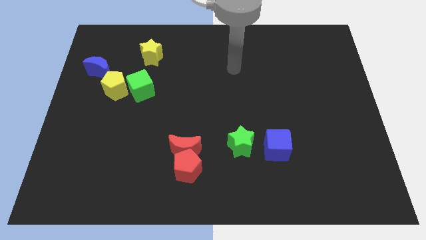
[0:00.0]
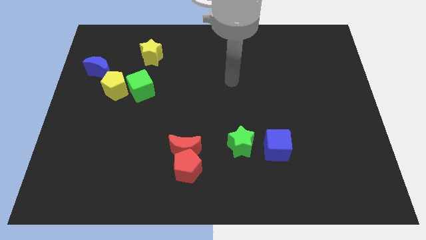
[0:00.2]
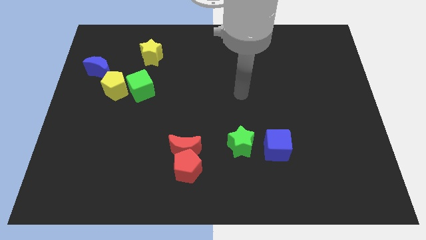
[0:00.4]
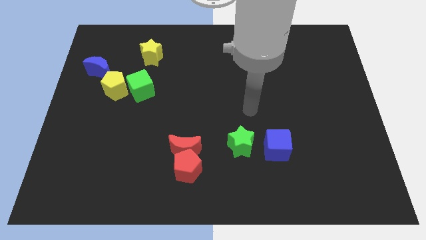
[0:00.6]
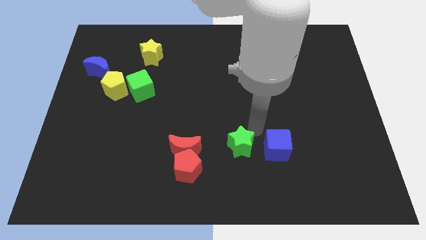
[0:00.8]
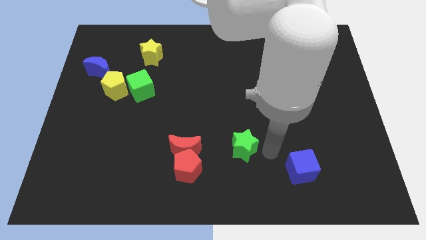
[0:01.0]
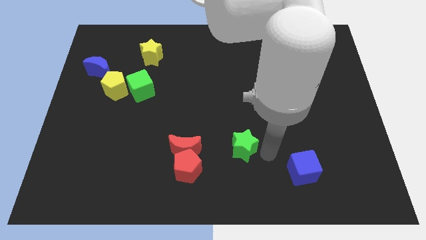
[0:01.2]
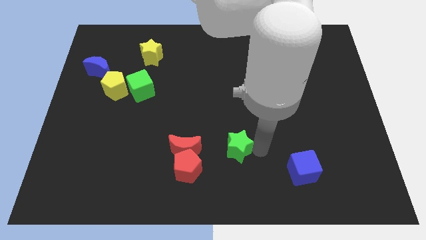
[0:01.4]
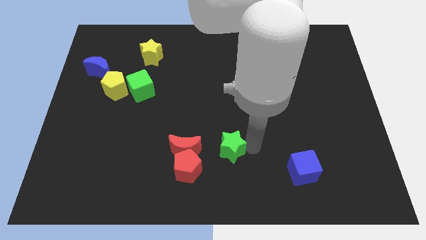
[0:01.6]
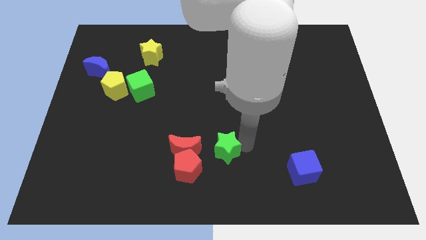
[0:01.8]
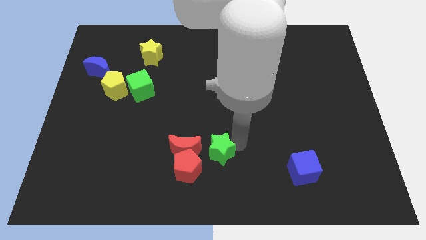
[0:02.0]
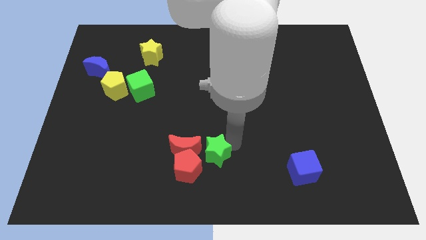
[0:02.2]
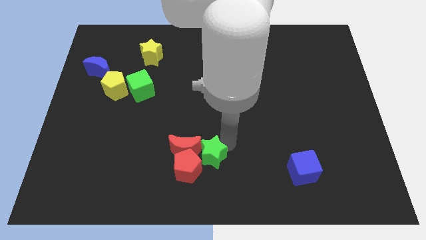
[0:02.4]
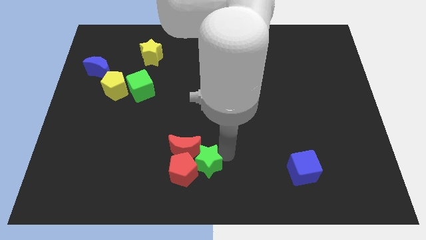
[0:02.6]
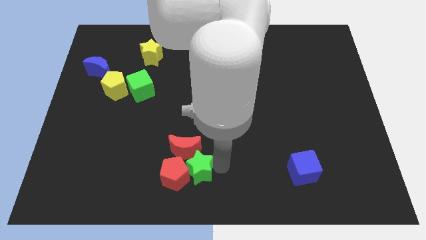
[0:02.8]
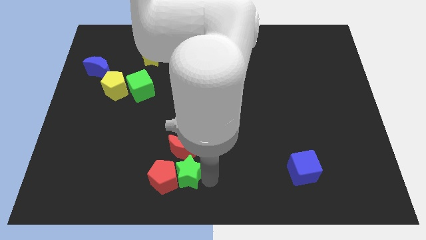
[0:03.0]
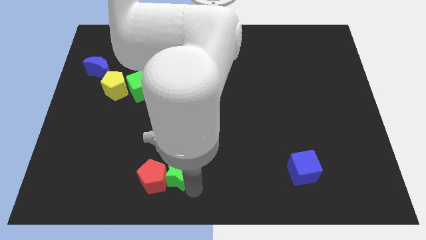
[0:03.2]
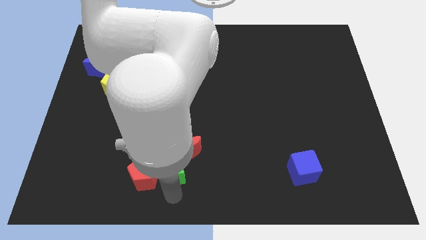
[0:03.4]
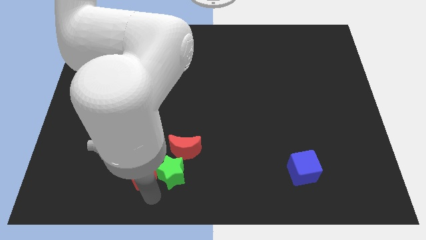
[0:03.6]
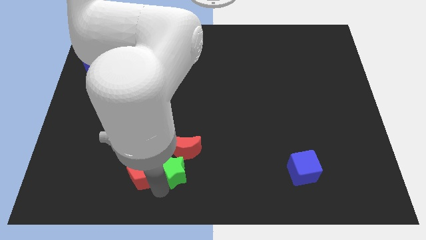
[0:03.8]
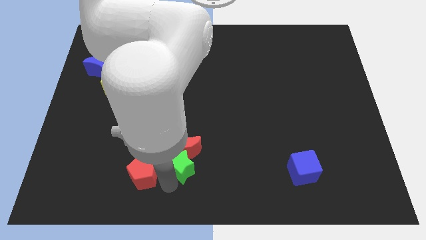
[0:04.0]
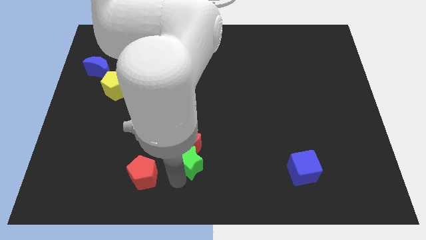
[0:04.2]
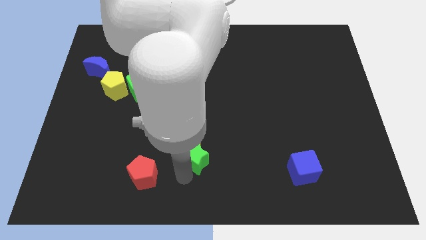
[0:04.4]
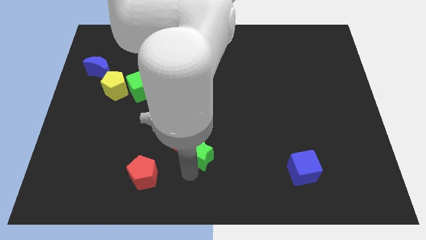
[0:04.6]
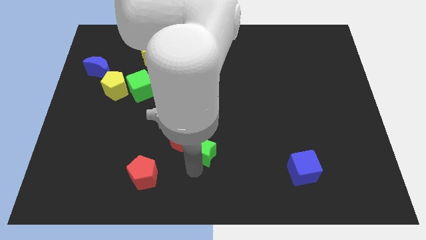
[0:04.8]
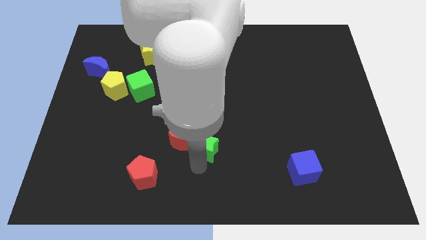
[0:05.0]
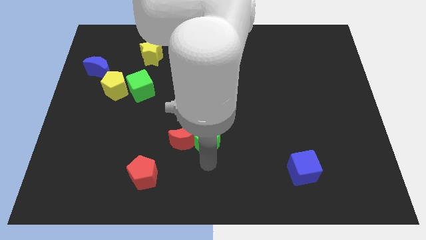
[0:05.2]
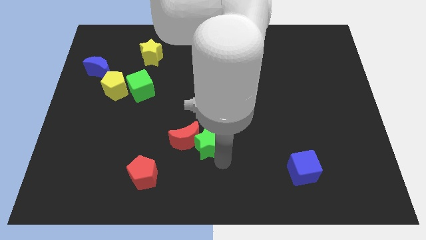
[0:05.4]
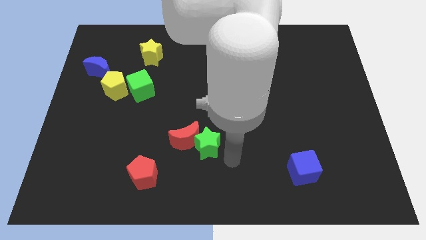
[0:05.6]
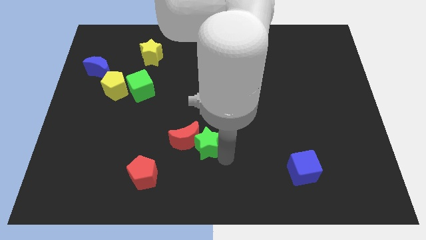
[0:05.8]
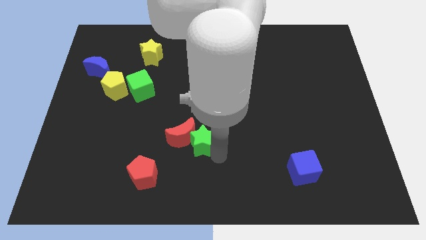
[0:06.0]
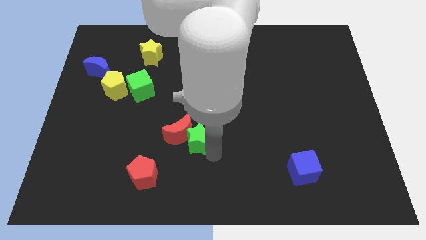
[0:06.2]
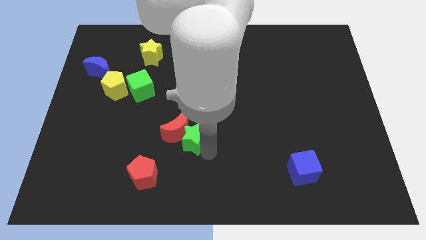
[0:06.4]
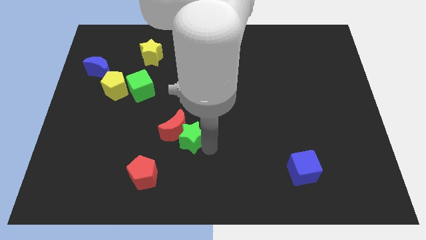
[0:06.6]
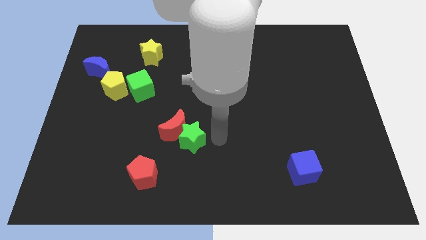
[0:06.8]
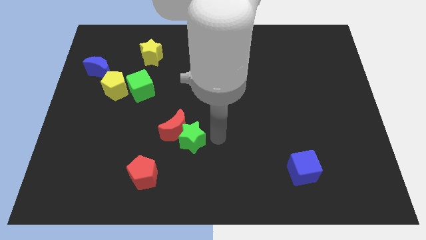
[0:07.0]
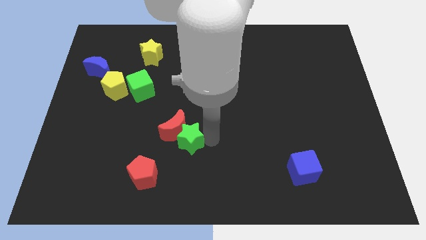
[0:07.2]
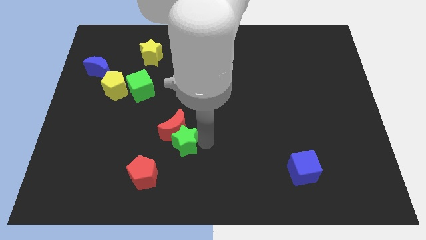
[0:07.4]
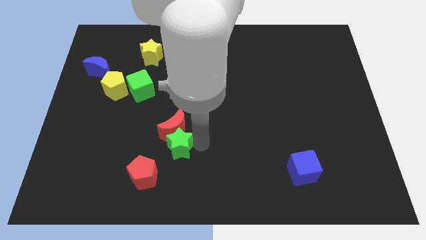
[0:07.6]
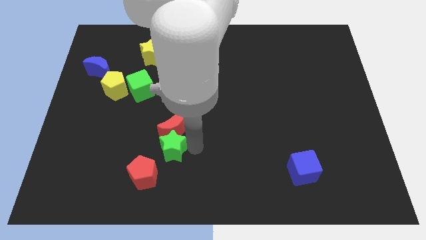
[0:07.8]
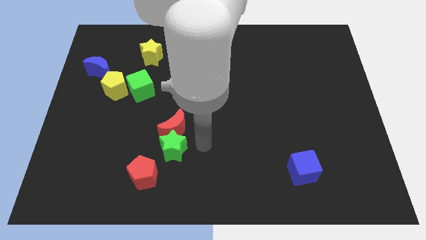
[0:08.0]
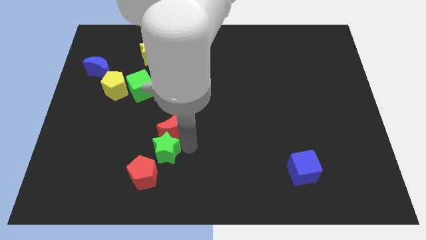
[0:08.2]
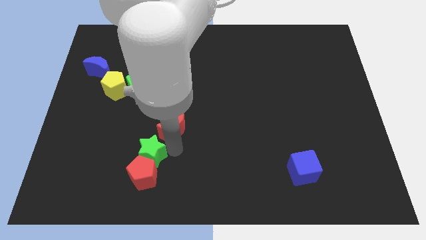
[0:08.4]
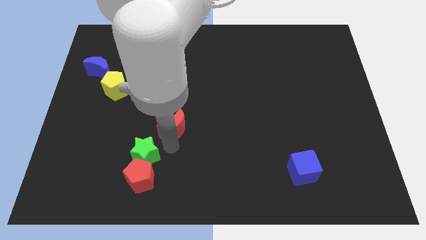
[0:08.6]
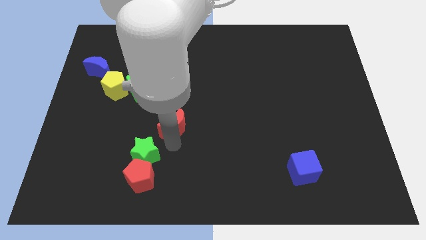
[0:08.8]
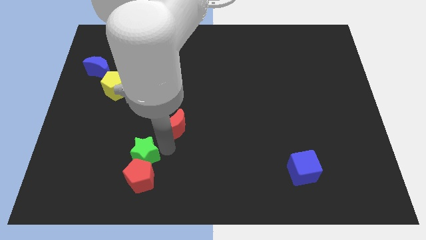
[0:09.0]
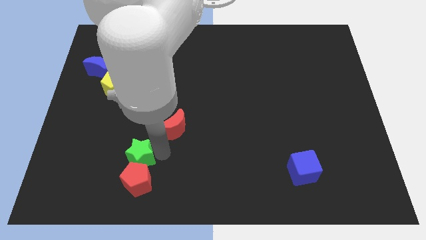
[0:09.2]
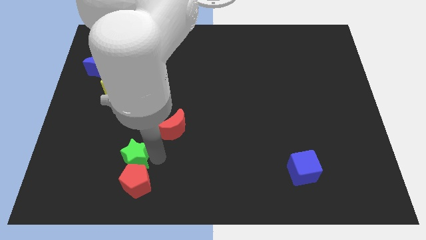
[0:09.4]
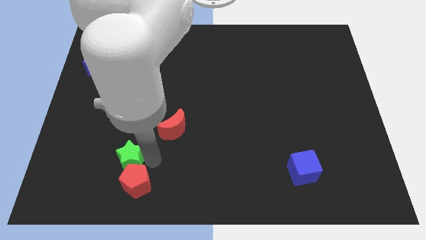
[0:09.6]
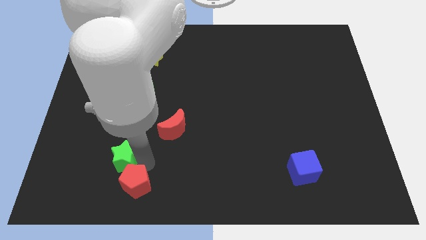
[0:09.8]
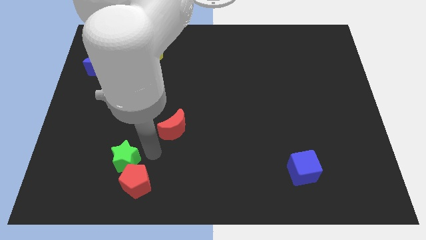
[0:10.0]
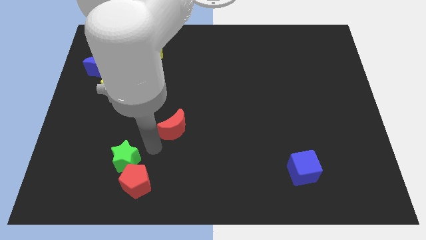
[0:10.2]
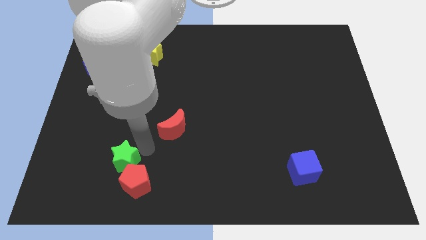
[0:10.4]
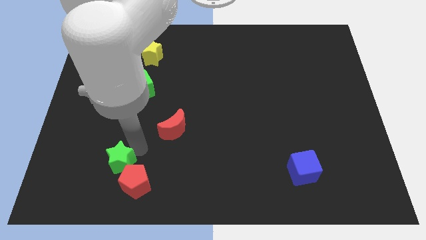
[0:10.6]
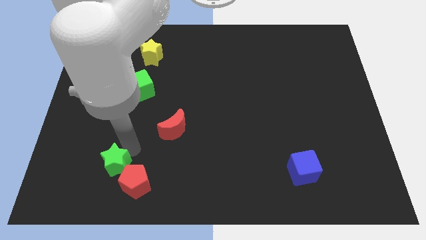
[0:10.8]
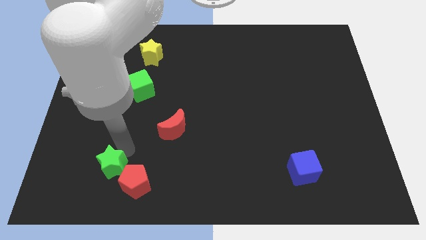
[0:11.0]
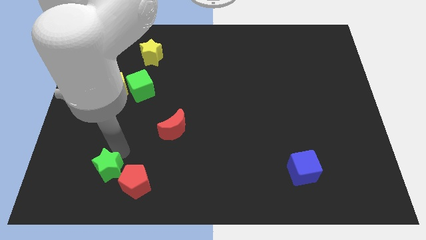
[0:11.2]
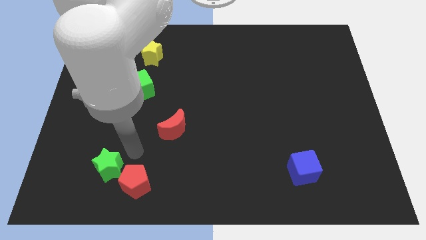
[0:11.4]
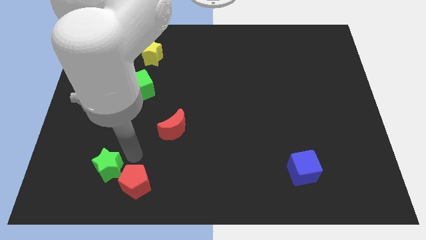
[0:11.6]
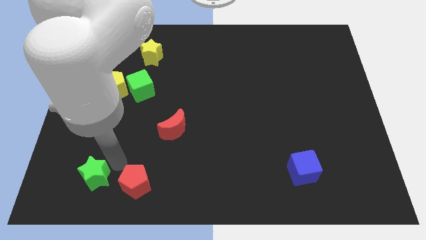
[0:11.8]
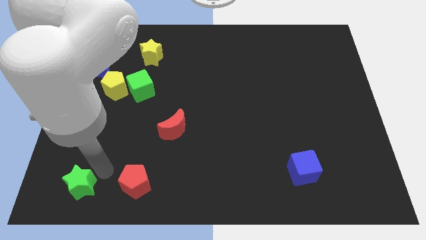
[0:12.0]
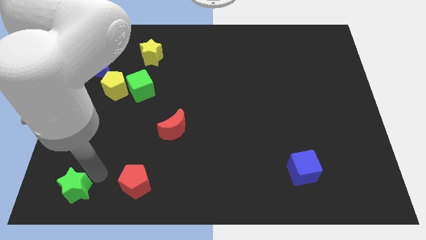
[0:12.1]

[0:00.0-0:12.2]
move the green star to the bottom left

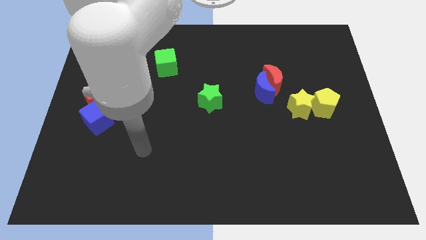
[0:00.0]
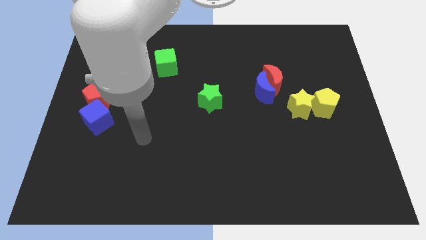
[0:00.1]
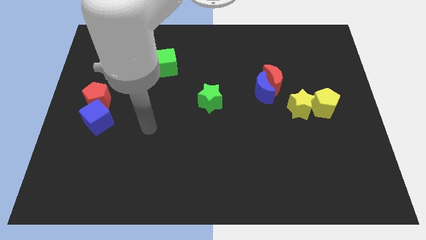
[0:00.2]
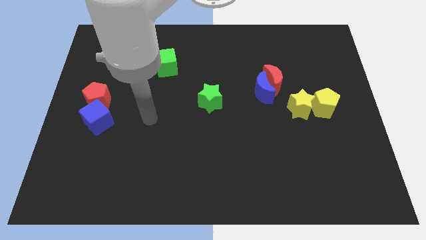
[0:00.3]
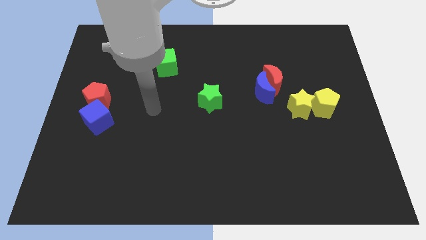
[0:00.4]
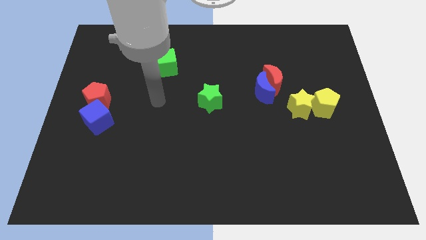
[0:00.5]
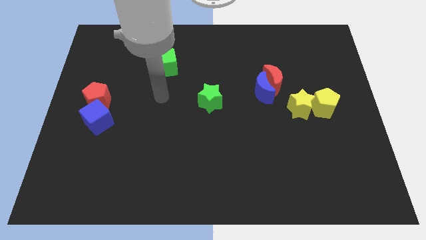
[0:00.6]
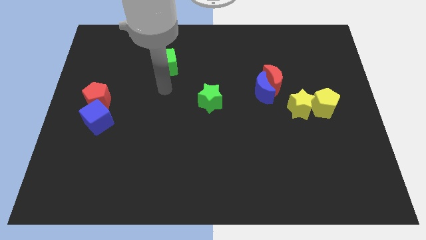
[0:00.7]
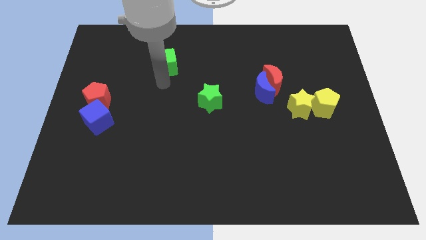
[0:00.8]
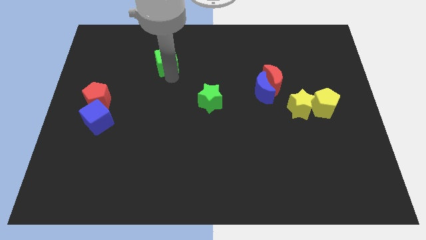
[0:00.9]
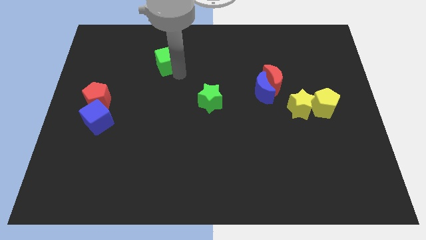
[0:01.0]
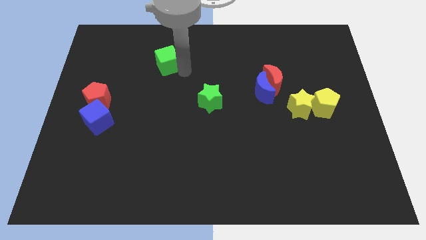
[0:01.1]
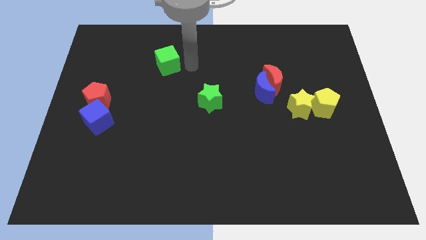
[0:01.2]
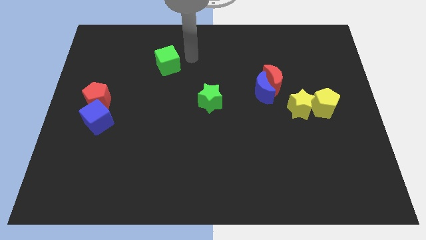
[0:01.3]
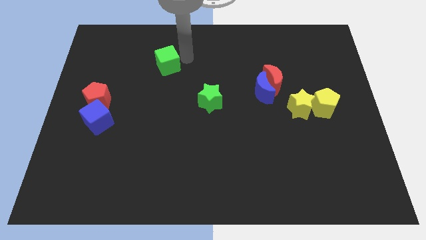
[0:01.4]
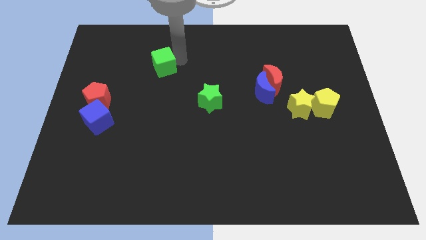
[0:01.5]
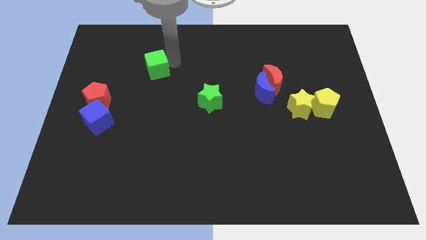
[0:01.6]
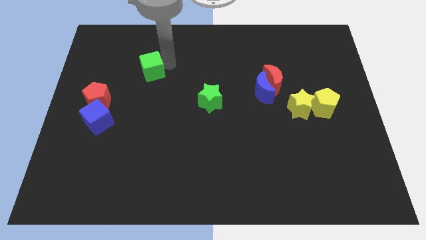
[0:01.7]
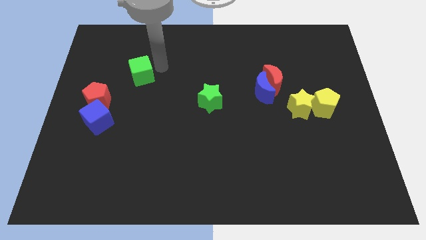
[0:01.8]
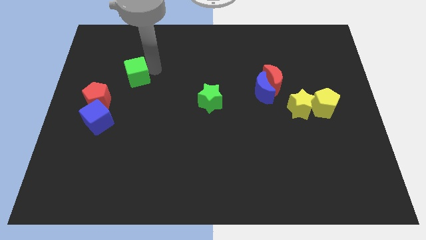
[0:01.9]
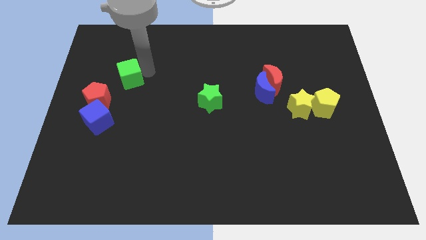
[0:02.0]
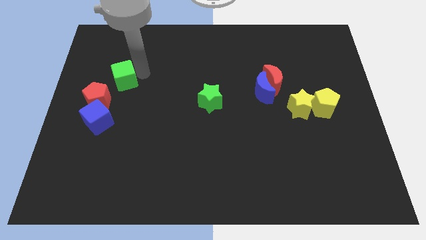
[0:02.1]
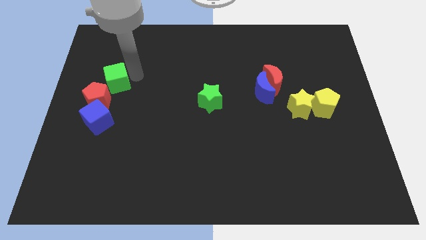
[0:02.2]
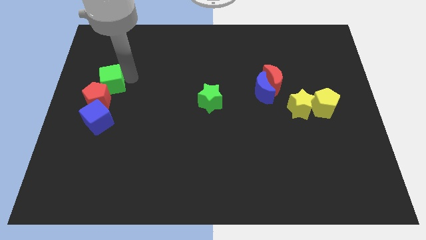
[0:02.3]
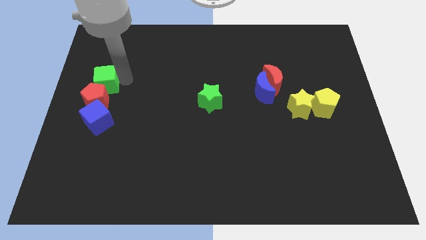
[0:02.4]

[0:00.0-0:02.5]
slide the green cube to the left side
